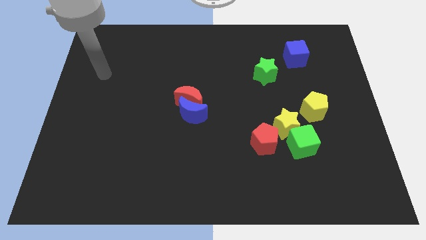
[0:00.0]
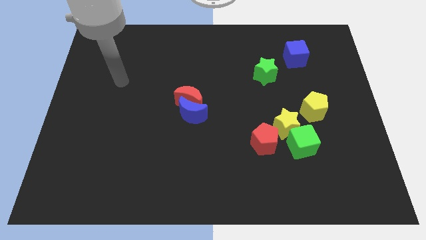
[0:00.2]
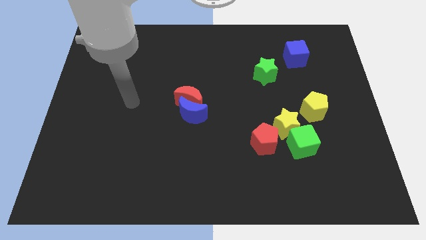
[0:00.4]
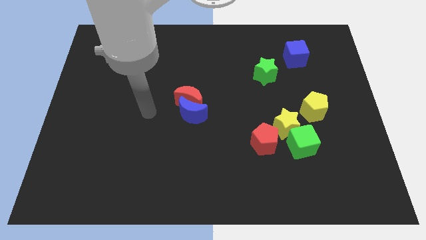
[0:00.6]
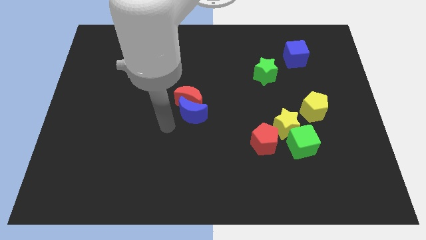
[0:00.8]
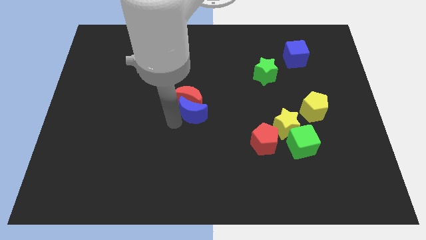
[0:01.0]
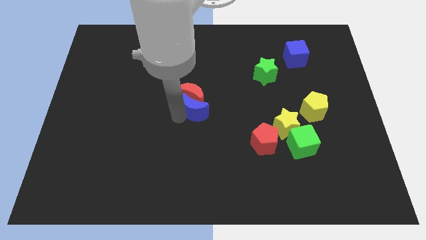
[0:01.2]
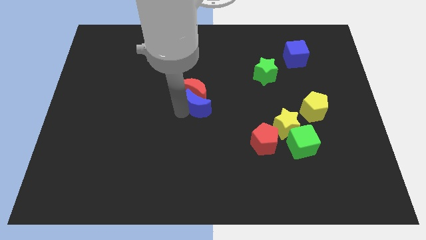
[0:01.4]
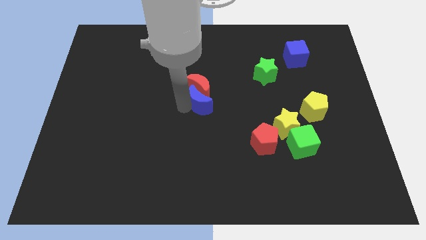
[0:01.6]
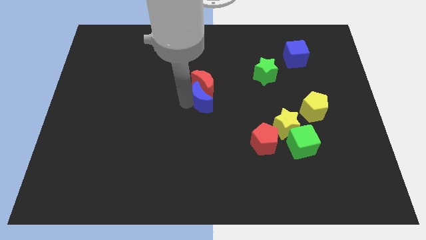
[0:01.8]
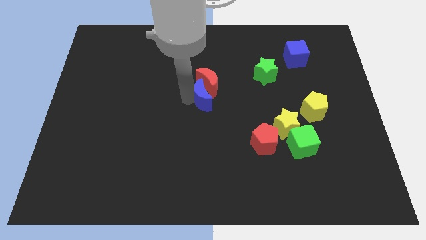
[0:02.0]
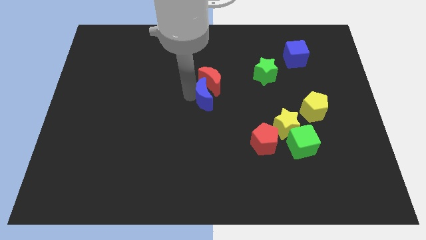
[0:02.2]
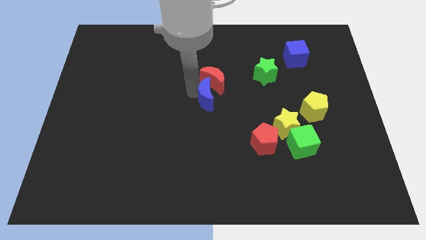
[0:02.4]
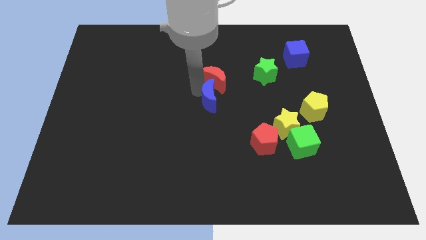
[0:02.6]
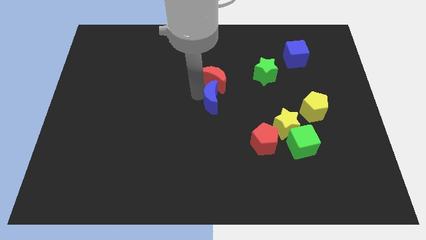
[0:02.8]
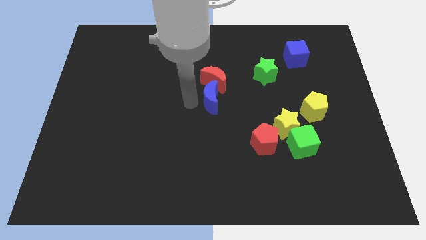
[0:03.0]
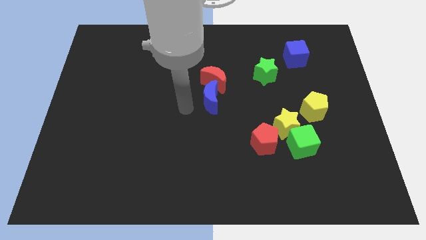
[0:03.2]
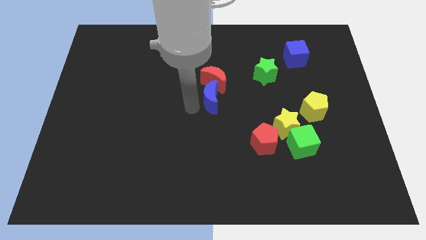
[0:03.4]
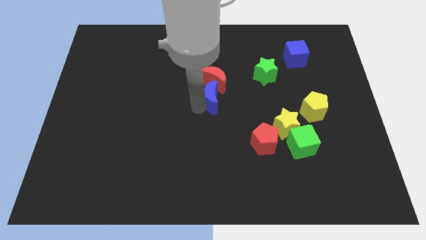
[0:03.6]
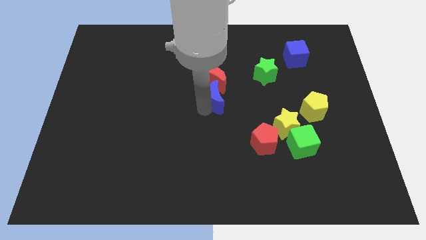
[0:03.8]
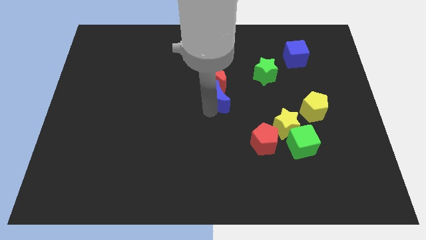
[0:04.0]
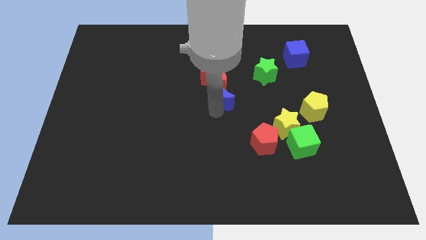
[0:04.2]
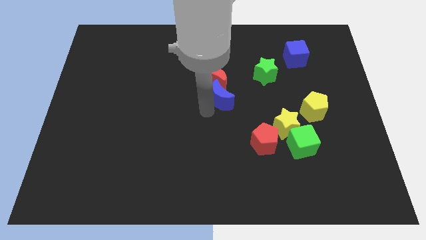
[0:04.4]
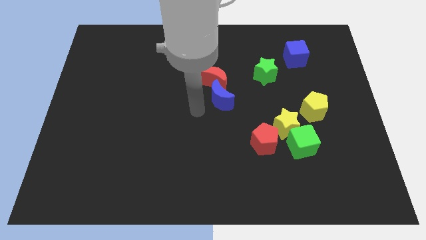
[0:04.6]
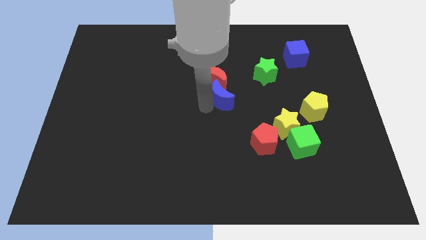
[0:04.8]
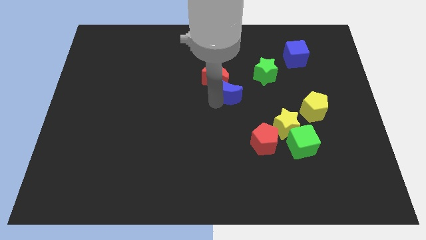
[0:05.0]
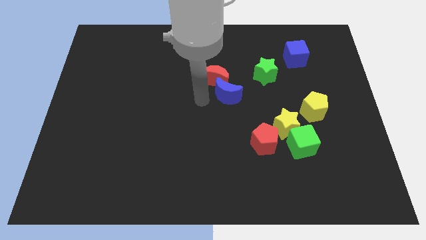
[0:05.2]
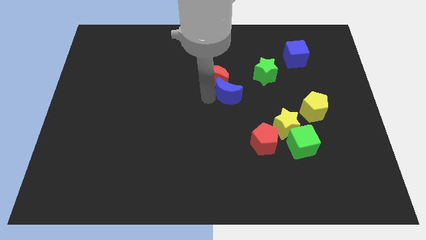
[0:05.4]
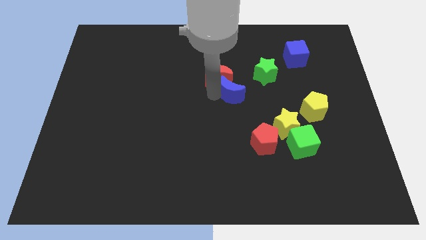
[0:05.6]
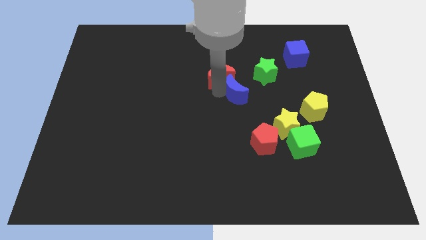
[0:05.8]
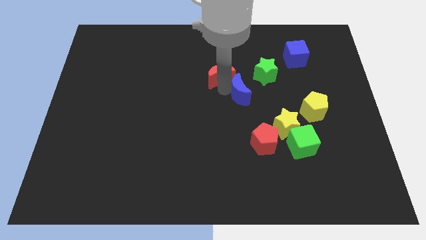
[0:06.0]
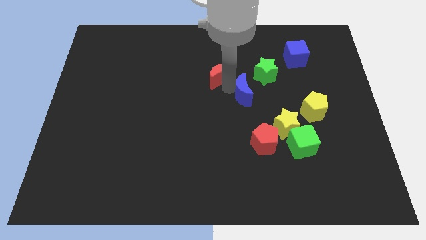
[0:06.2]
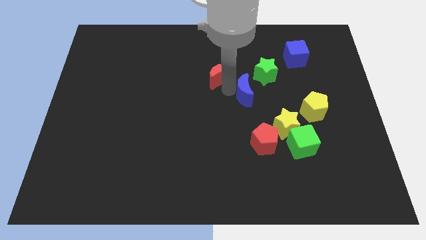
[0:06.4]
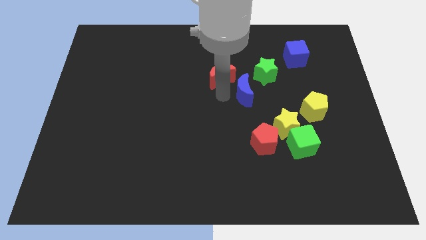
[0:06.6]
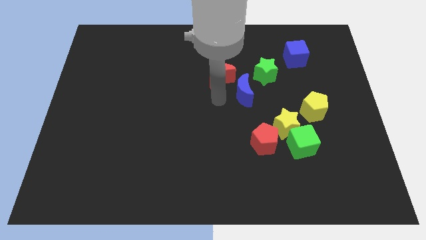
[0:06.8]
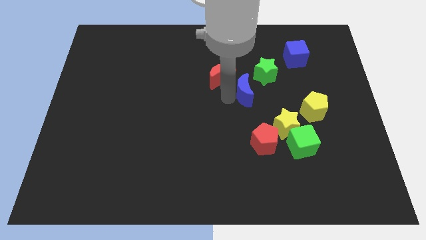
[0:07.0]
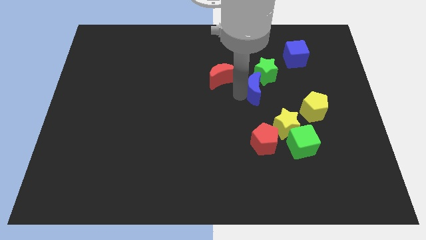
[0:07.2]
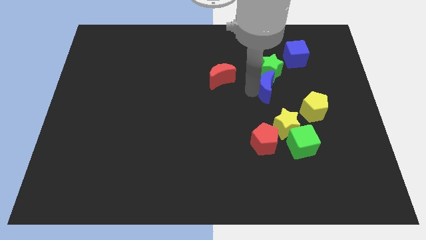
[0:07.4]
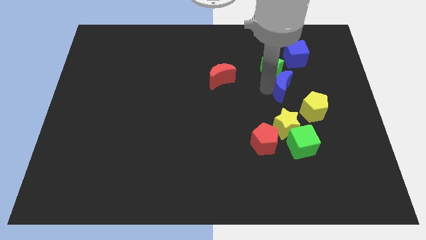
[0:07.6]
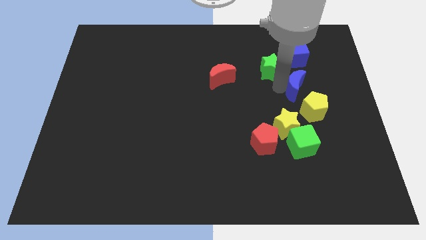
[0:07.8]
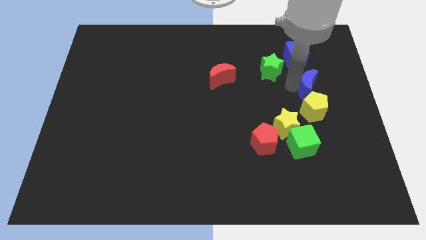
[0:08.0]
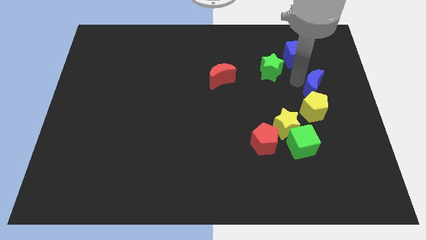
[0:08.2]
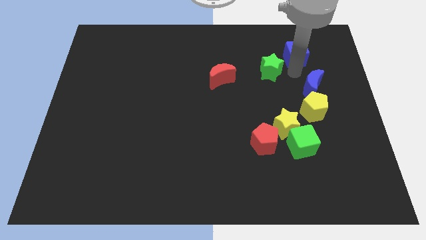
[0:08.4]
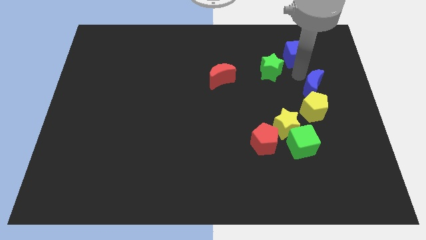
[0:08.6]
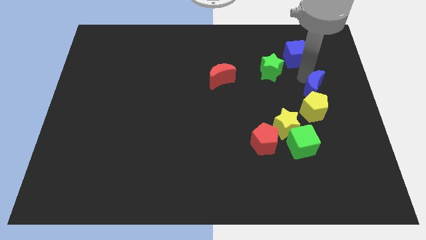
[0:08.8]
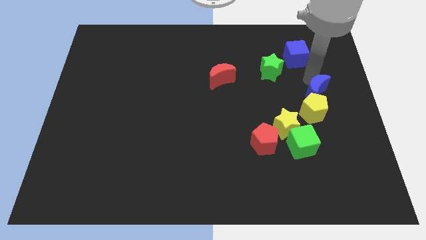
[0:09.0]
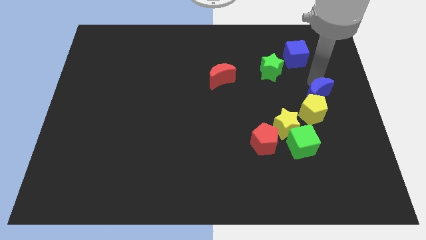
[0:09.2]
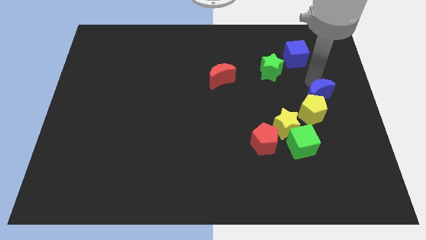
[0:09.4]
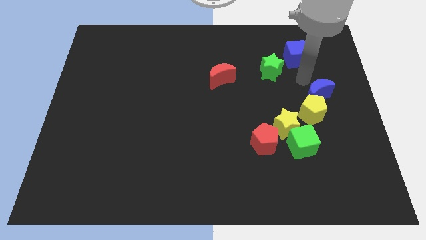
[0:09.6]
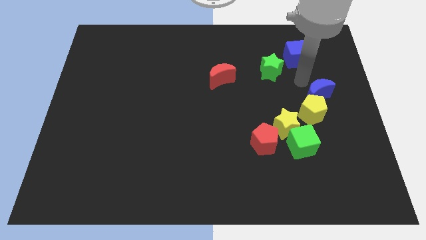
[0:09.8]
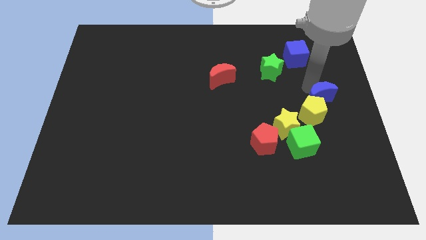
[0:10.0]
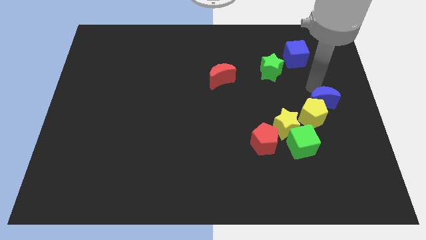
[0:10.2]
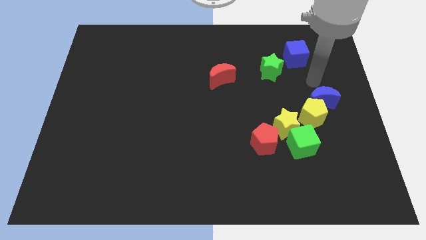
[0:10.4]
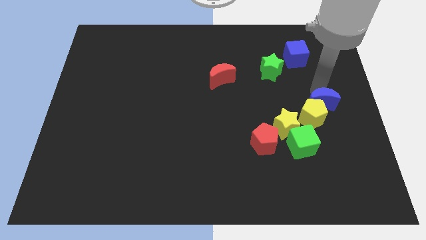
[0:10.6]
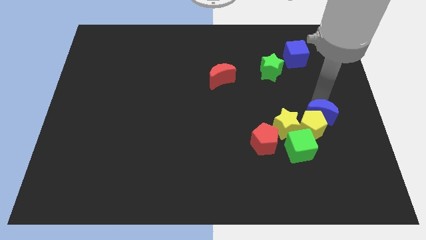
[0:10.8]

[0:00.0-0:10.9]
move the blue moon right of the yellow star

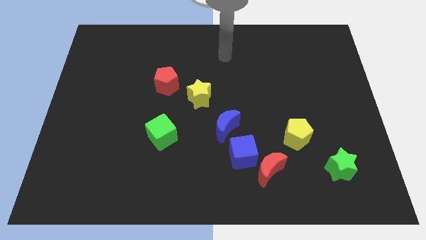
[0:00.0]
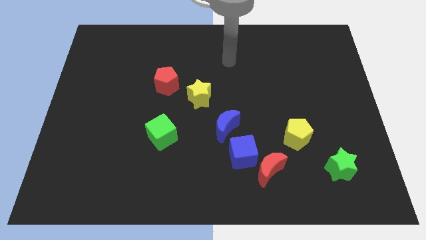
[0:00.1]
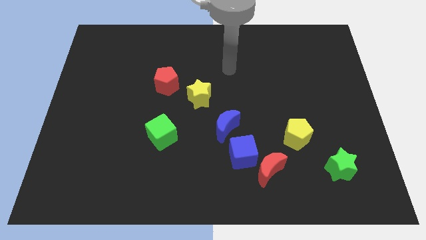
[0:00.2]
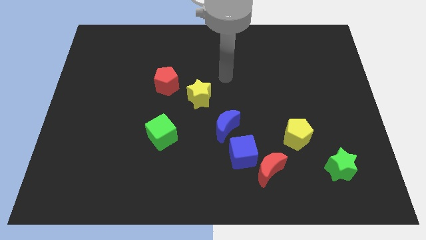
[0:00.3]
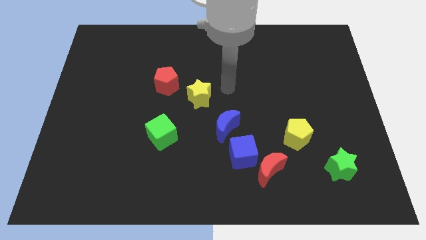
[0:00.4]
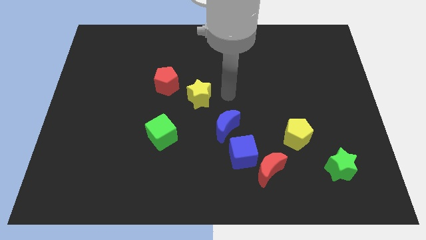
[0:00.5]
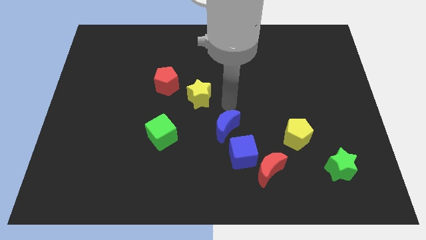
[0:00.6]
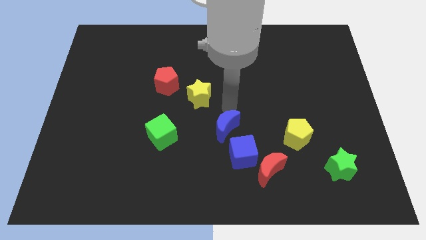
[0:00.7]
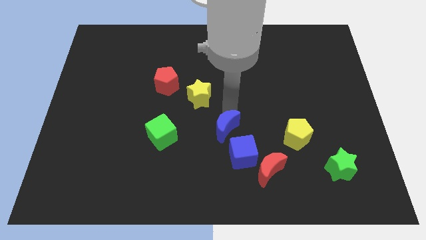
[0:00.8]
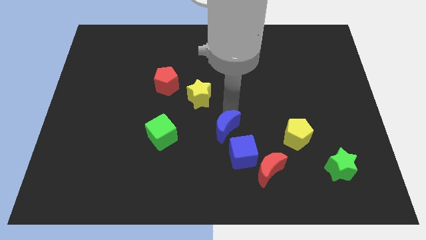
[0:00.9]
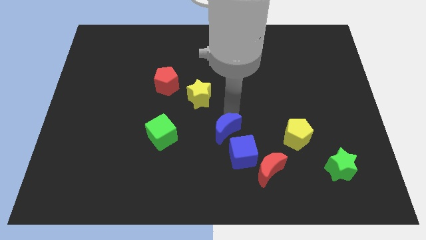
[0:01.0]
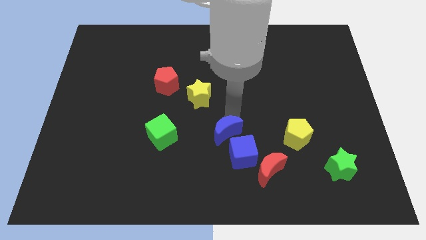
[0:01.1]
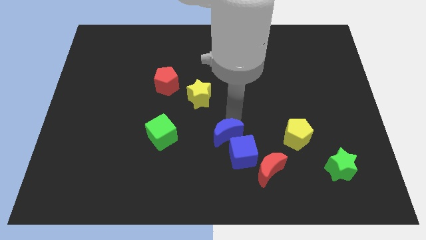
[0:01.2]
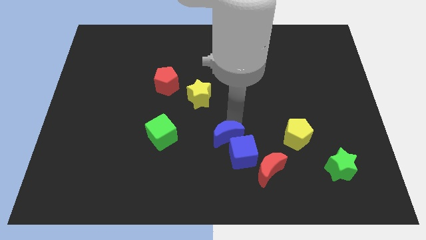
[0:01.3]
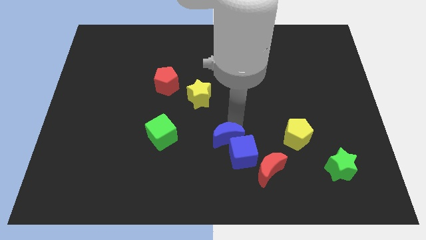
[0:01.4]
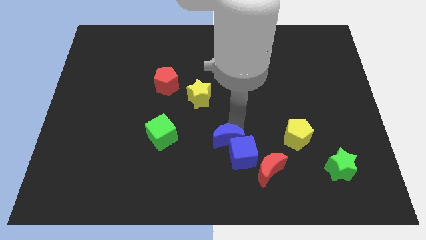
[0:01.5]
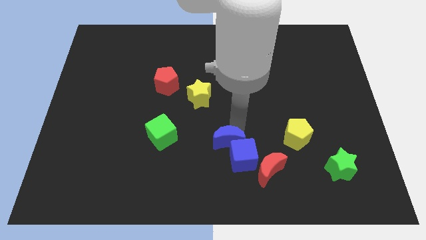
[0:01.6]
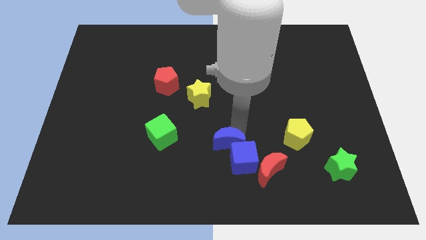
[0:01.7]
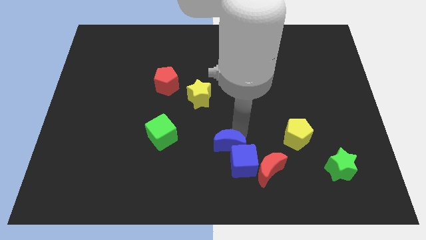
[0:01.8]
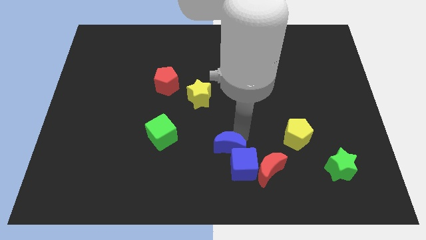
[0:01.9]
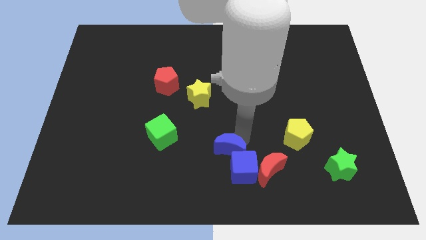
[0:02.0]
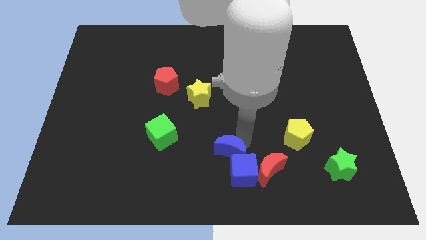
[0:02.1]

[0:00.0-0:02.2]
move the blue moon to the left side of the red moon
